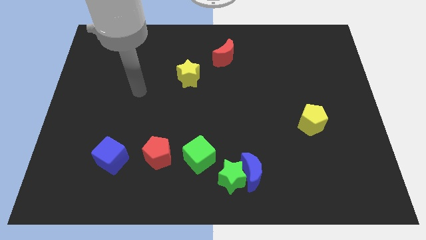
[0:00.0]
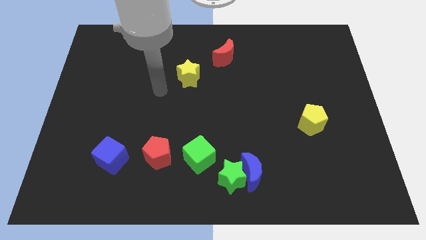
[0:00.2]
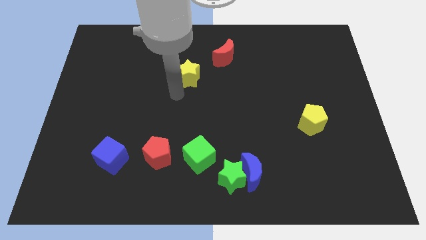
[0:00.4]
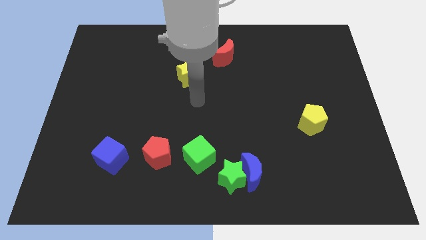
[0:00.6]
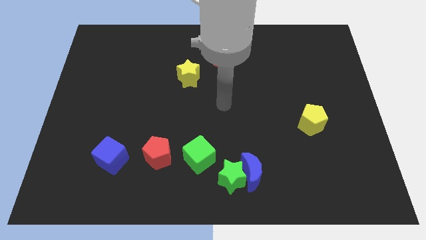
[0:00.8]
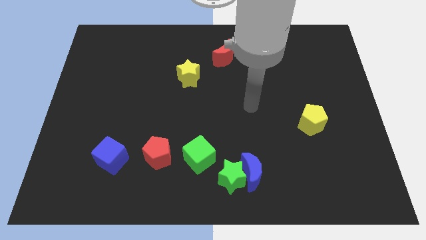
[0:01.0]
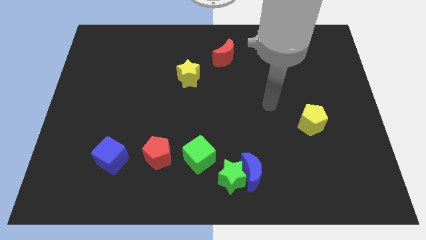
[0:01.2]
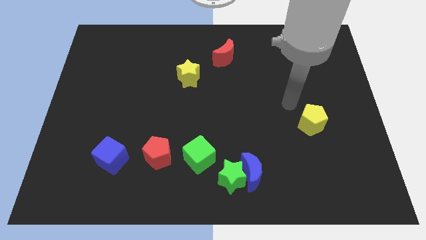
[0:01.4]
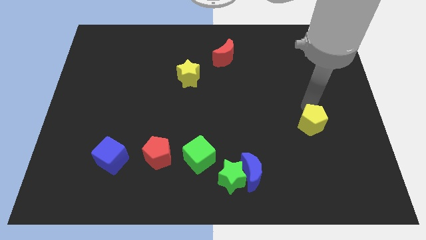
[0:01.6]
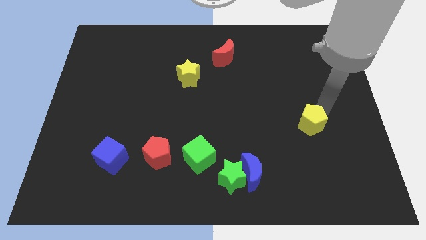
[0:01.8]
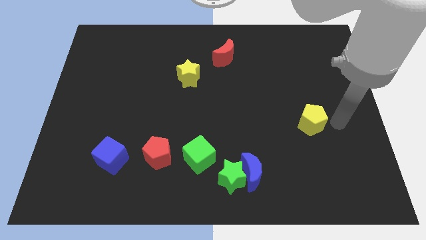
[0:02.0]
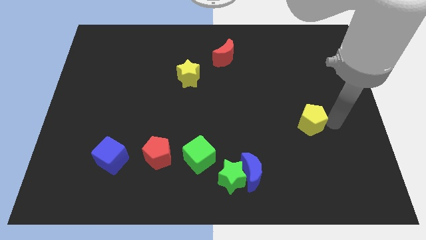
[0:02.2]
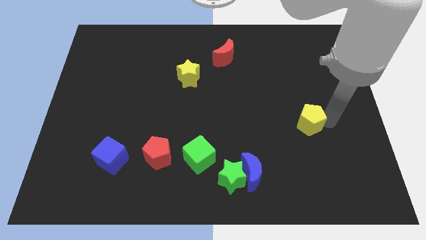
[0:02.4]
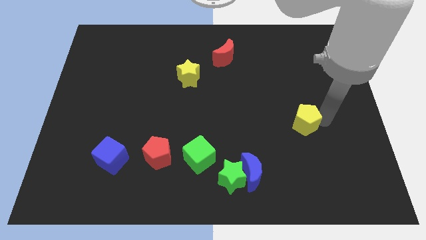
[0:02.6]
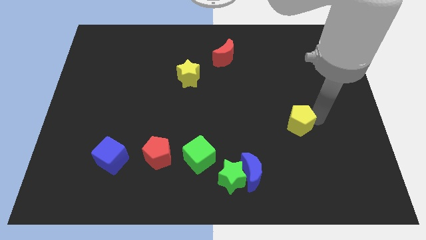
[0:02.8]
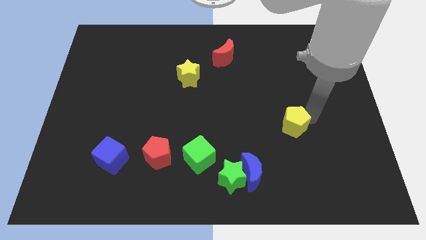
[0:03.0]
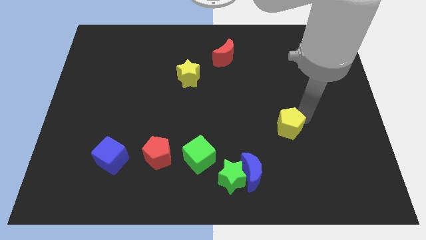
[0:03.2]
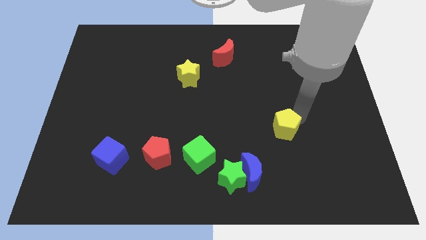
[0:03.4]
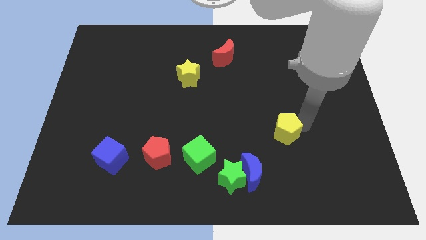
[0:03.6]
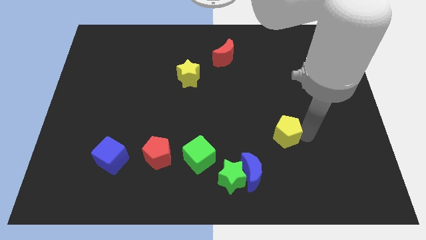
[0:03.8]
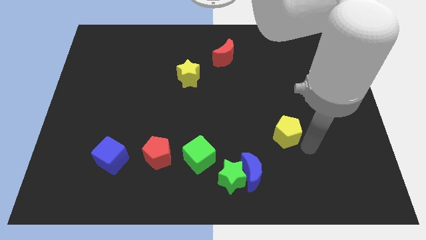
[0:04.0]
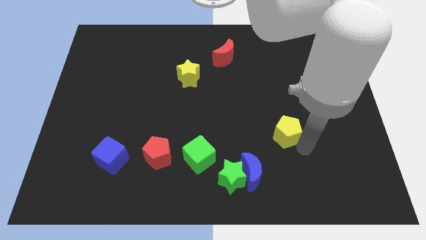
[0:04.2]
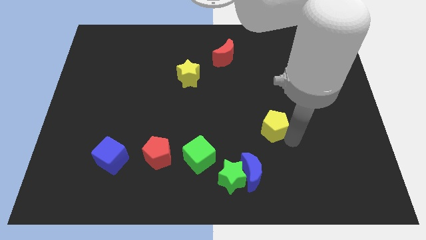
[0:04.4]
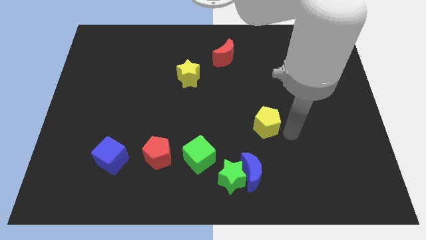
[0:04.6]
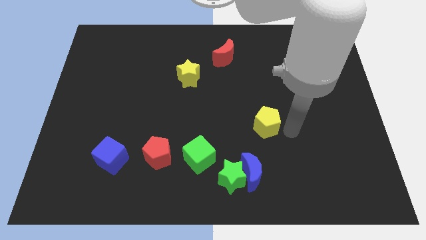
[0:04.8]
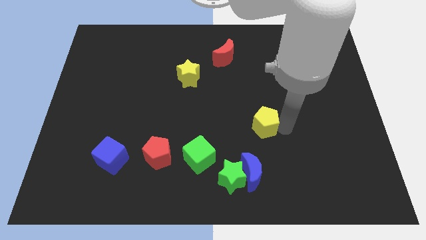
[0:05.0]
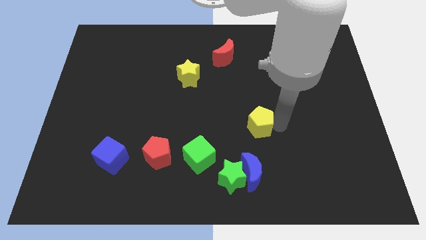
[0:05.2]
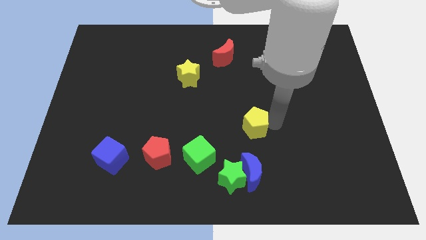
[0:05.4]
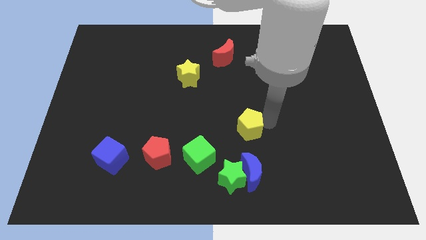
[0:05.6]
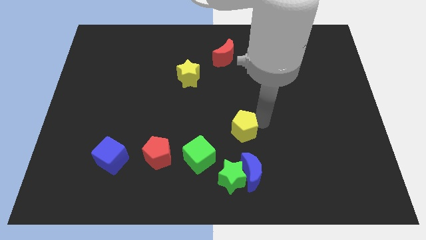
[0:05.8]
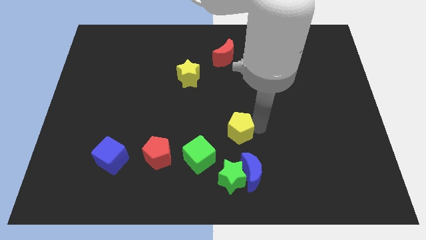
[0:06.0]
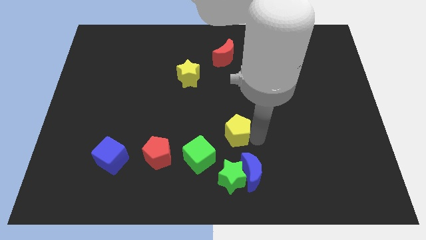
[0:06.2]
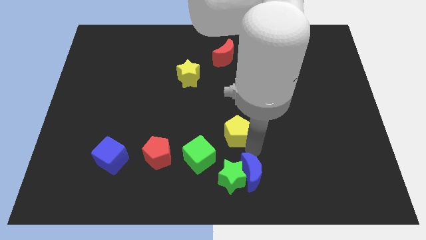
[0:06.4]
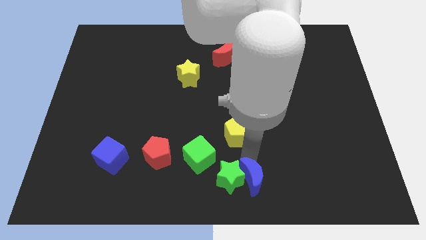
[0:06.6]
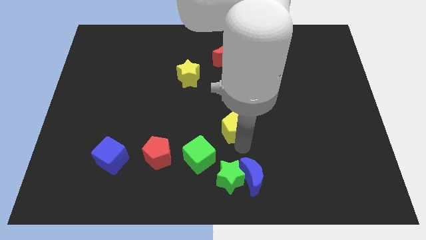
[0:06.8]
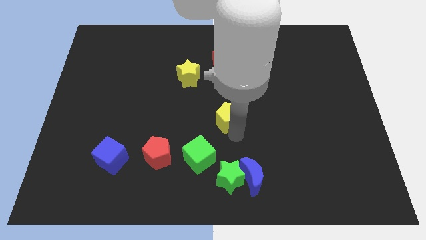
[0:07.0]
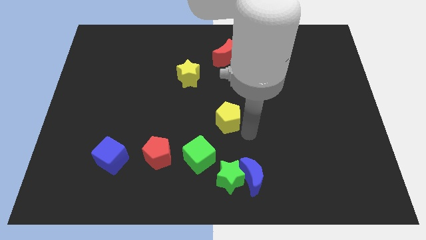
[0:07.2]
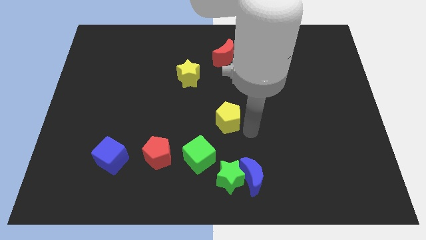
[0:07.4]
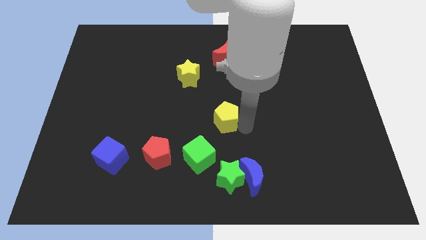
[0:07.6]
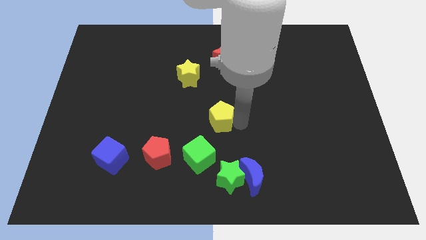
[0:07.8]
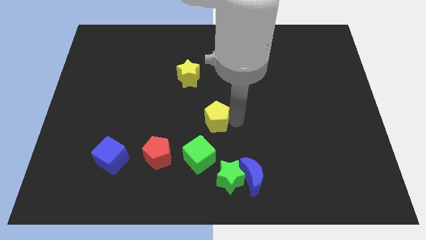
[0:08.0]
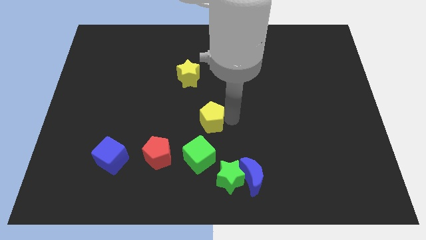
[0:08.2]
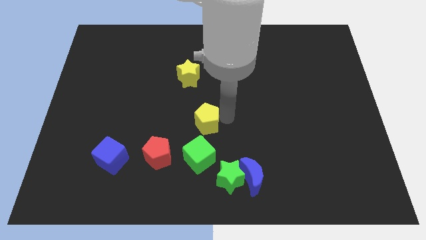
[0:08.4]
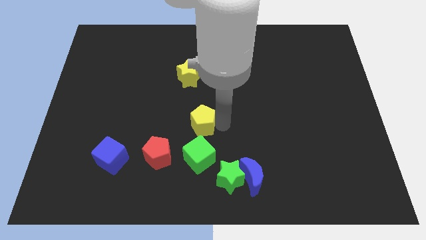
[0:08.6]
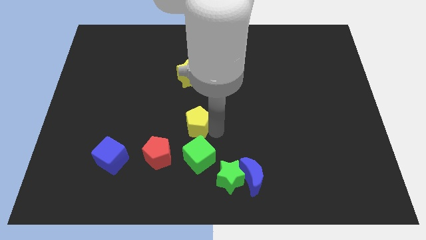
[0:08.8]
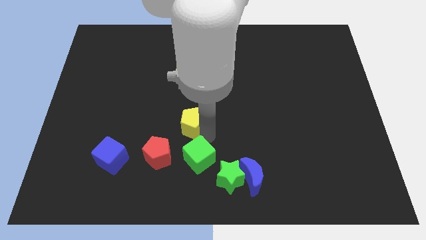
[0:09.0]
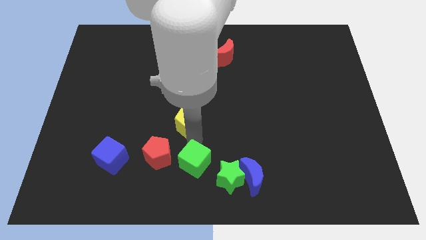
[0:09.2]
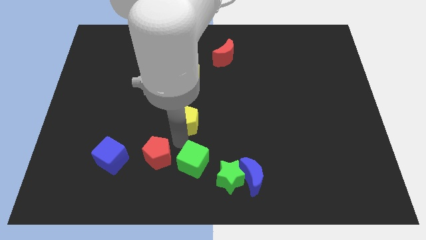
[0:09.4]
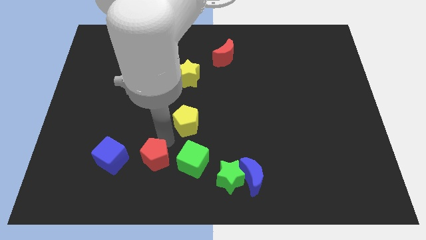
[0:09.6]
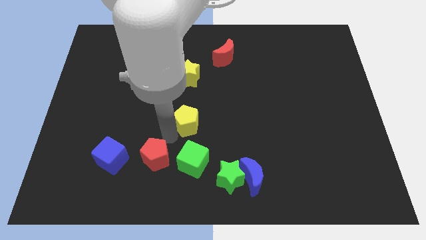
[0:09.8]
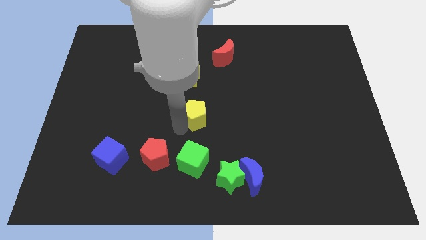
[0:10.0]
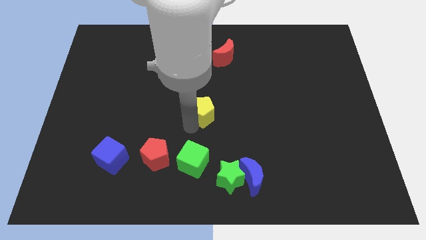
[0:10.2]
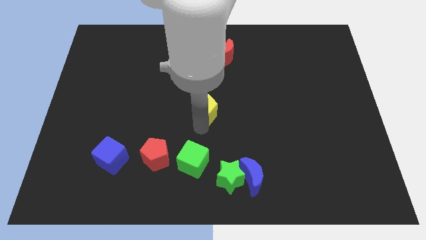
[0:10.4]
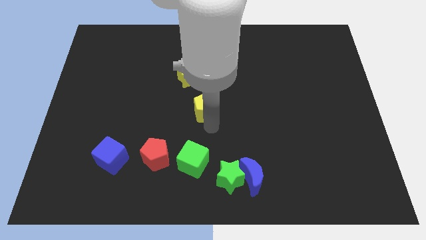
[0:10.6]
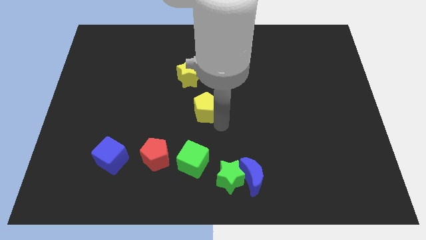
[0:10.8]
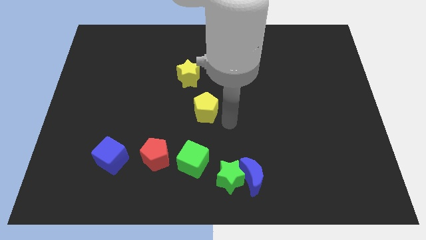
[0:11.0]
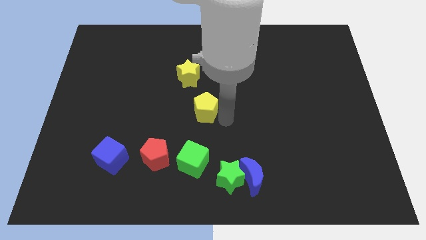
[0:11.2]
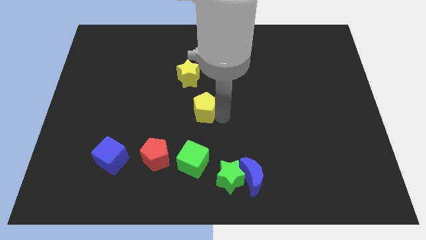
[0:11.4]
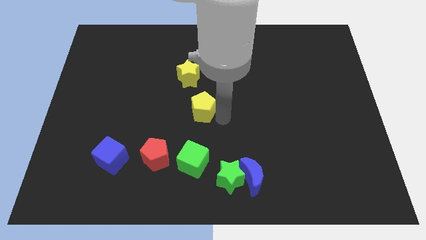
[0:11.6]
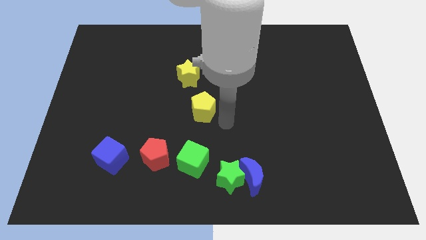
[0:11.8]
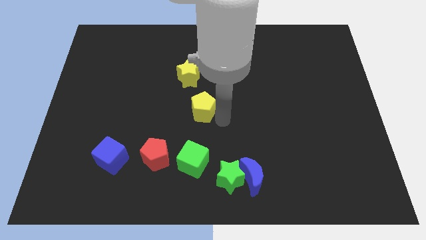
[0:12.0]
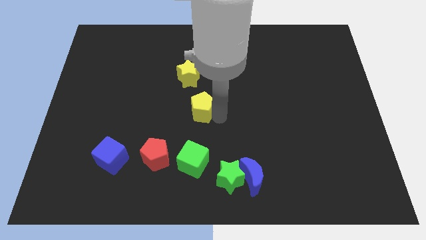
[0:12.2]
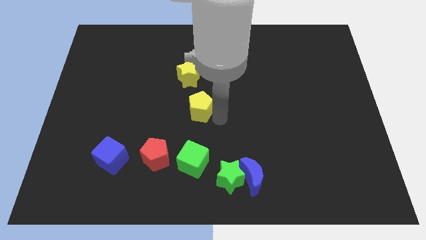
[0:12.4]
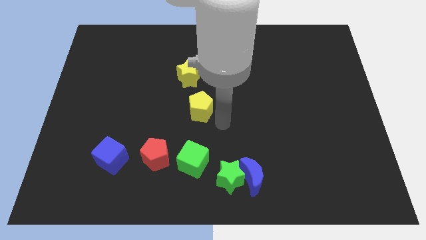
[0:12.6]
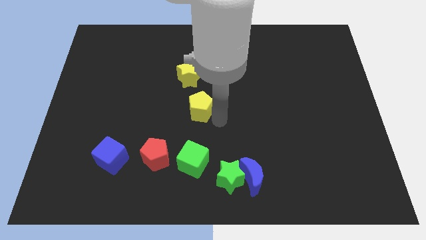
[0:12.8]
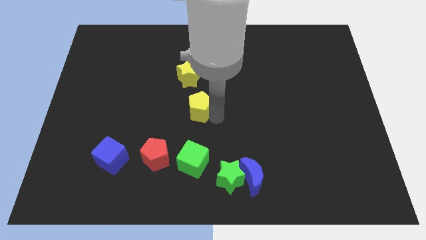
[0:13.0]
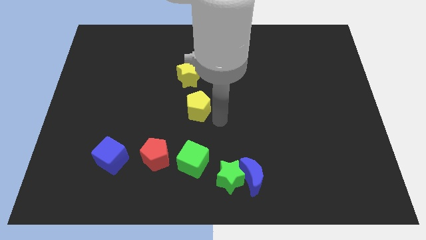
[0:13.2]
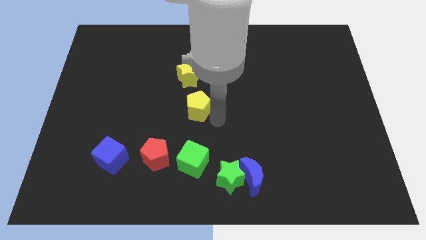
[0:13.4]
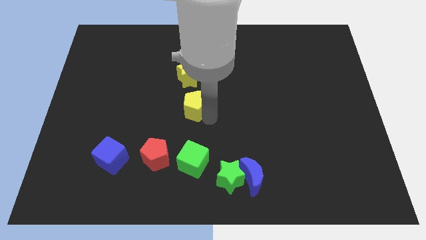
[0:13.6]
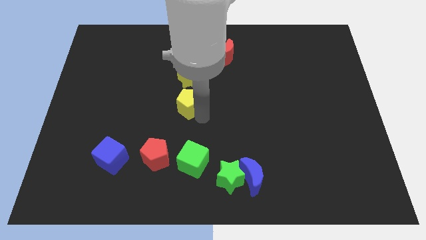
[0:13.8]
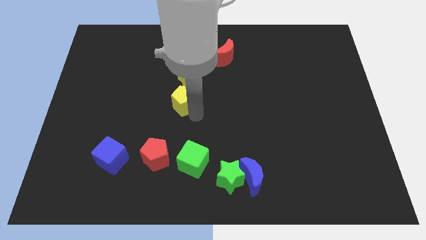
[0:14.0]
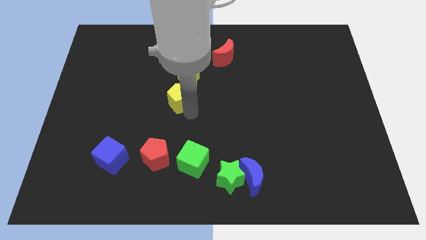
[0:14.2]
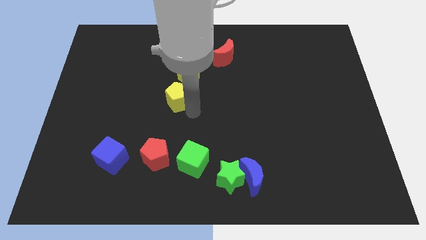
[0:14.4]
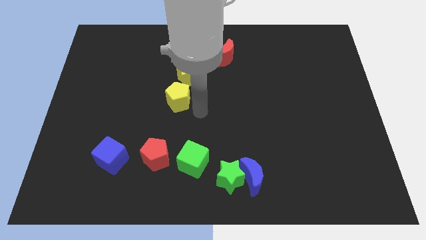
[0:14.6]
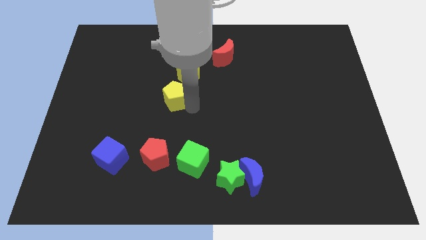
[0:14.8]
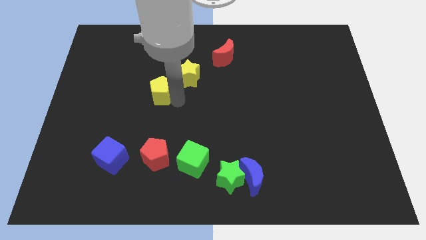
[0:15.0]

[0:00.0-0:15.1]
slide the yellow pentagon to the left side of the yellow star
